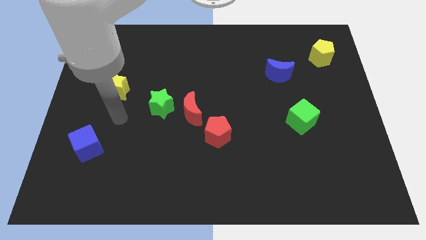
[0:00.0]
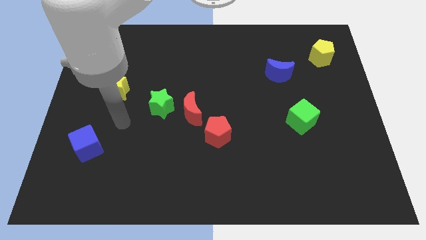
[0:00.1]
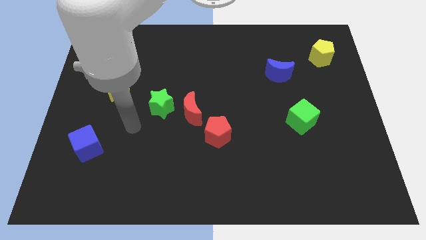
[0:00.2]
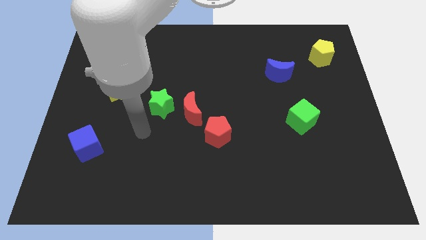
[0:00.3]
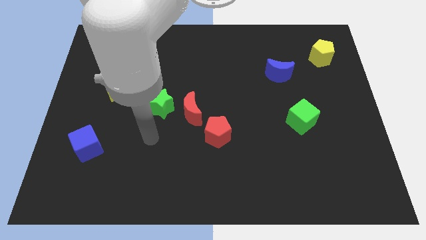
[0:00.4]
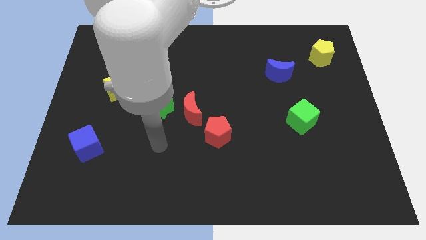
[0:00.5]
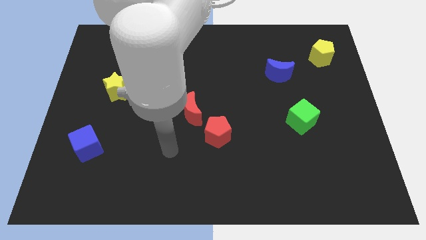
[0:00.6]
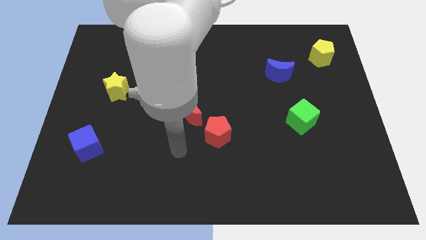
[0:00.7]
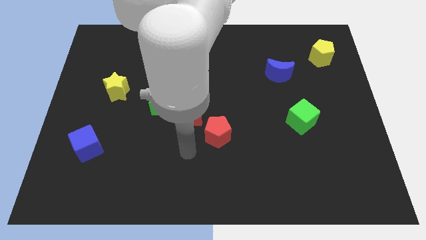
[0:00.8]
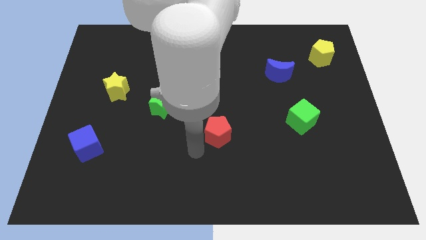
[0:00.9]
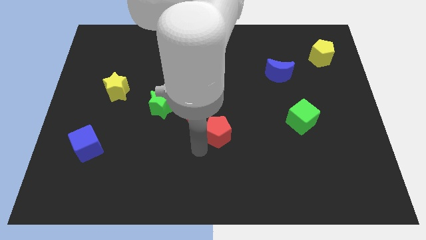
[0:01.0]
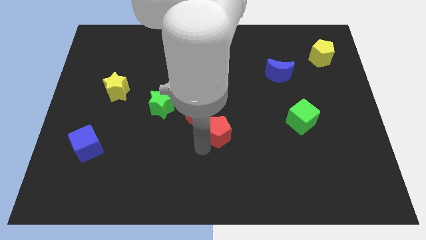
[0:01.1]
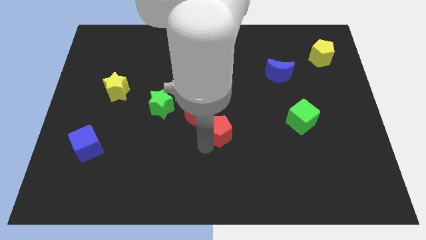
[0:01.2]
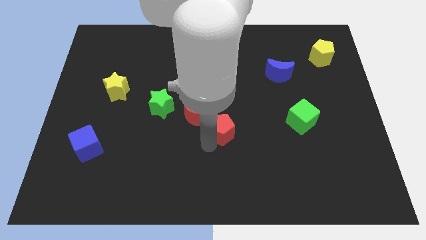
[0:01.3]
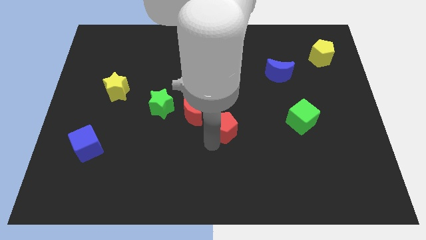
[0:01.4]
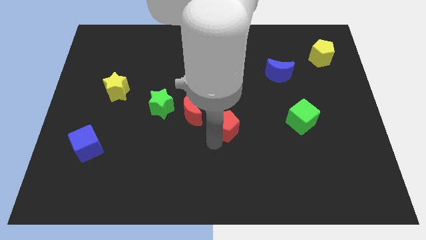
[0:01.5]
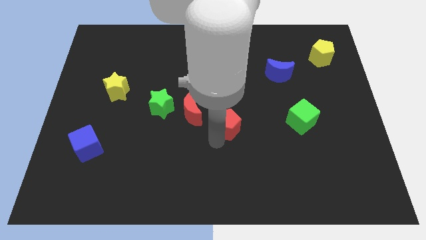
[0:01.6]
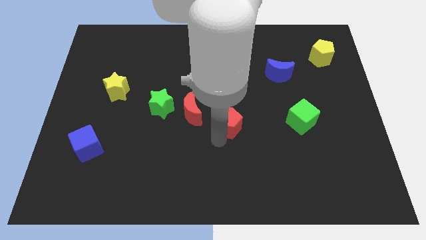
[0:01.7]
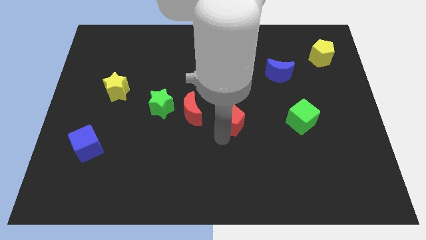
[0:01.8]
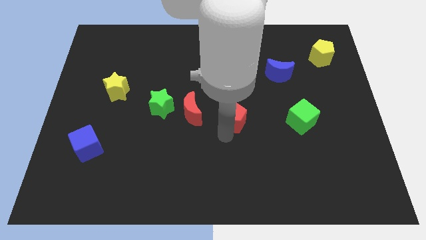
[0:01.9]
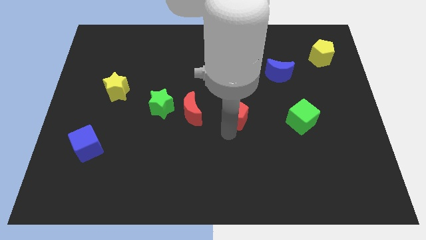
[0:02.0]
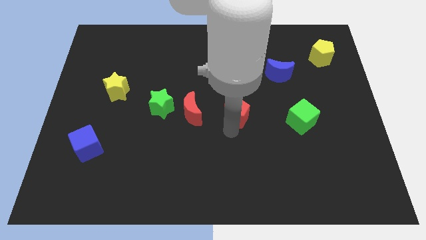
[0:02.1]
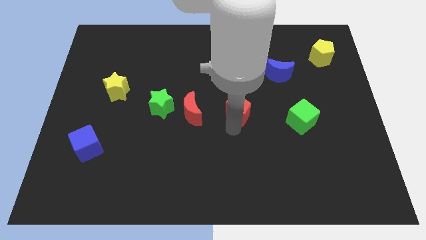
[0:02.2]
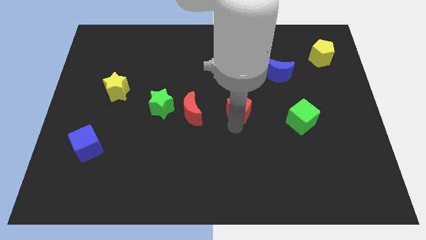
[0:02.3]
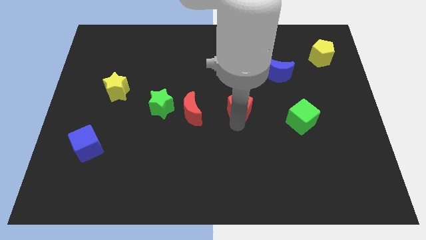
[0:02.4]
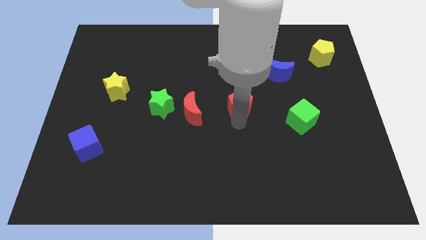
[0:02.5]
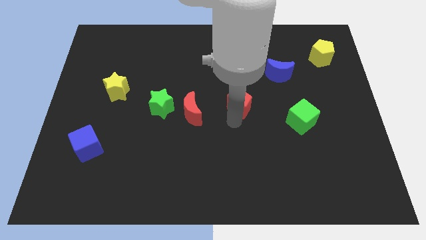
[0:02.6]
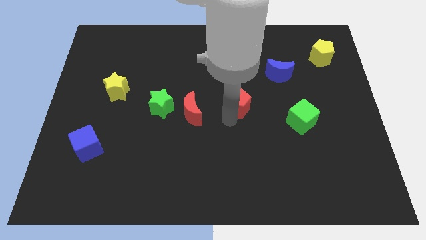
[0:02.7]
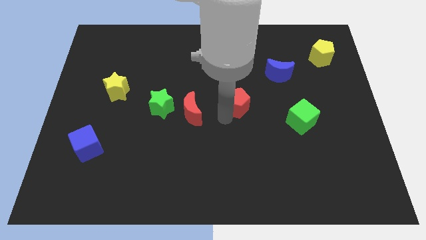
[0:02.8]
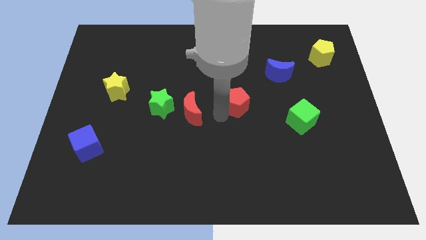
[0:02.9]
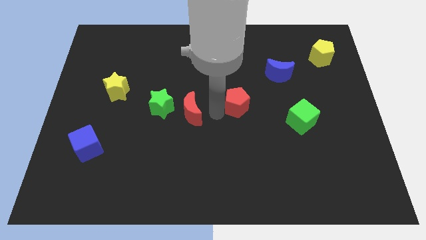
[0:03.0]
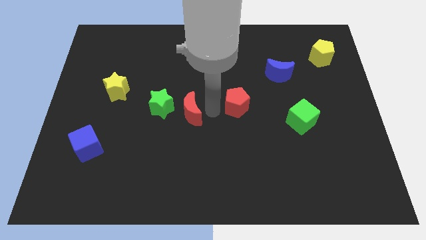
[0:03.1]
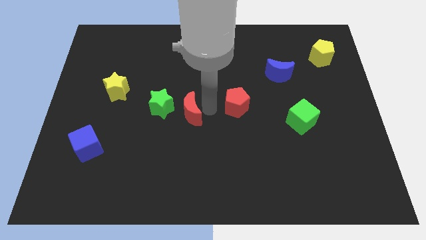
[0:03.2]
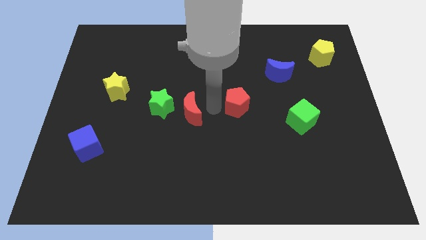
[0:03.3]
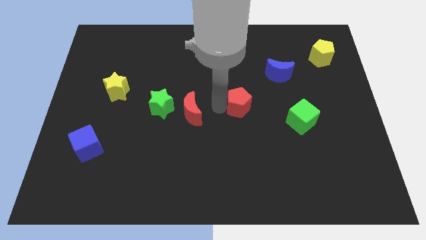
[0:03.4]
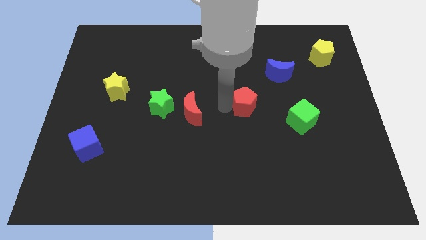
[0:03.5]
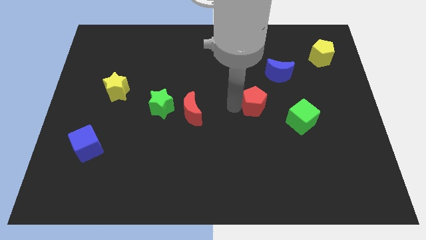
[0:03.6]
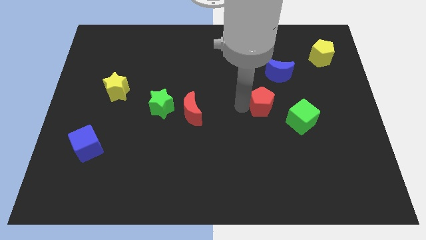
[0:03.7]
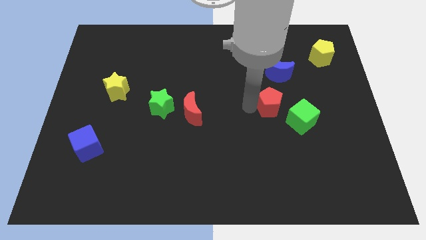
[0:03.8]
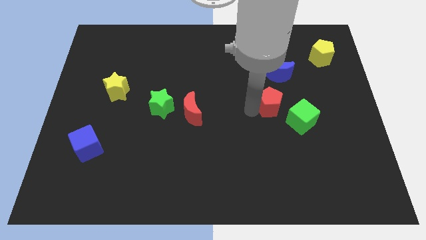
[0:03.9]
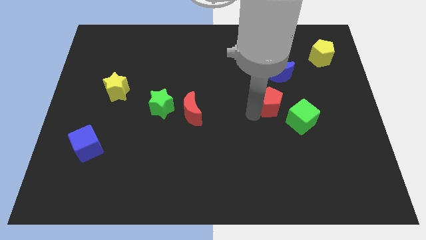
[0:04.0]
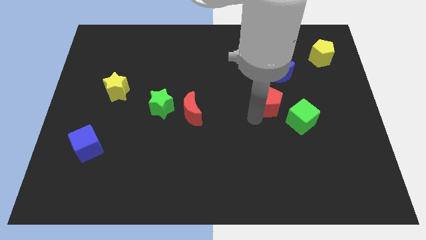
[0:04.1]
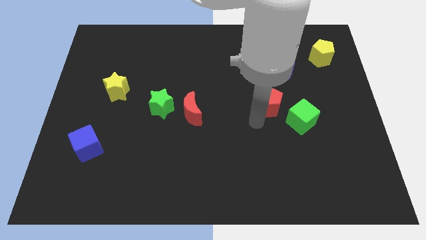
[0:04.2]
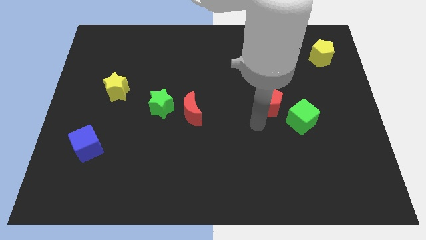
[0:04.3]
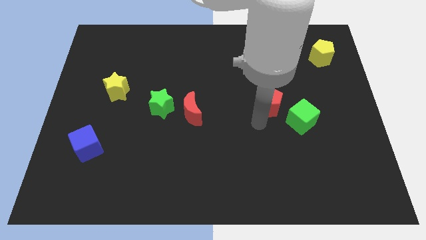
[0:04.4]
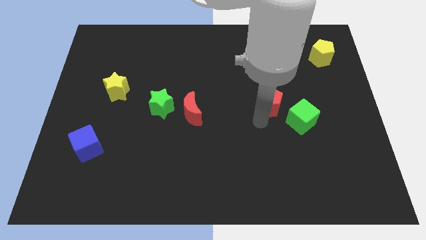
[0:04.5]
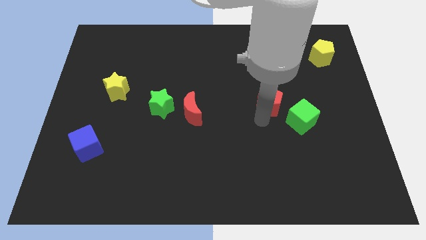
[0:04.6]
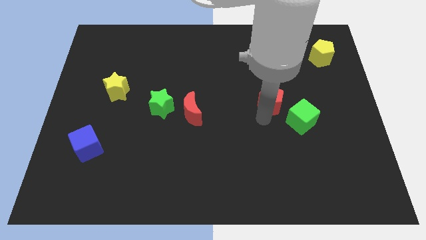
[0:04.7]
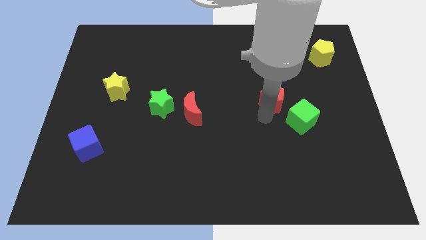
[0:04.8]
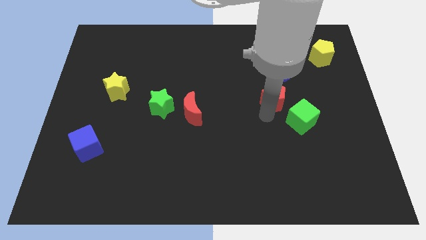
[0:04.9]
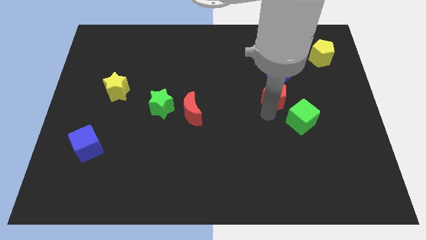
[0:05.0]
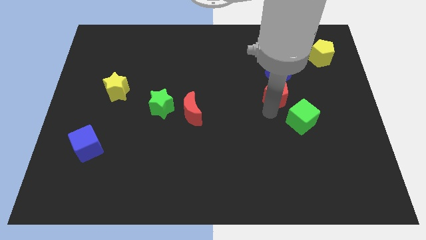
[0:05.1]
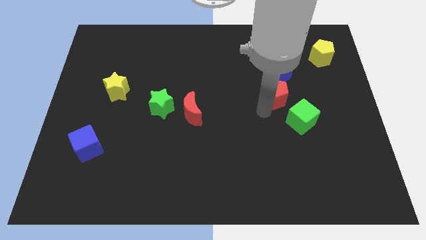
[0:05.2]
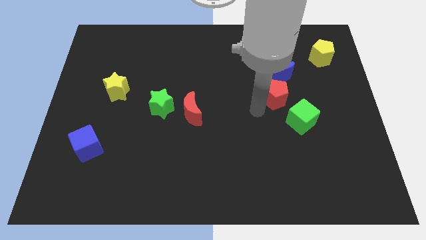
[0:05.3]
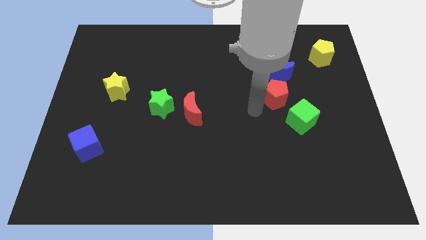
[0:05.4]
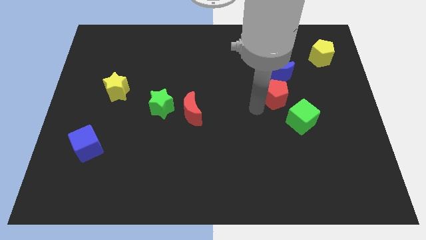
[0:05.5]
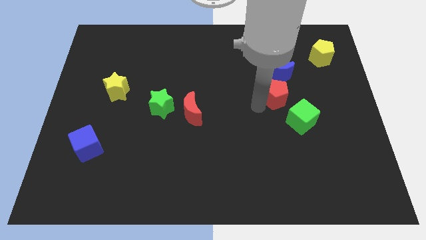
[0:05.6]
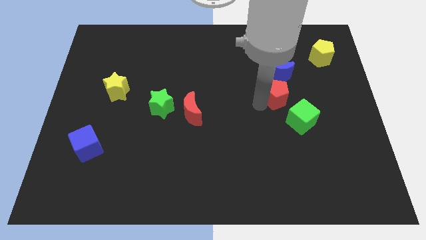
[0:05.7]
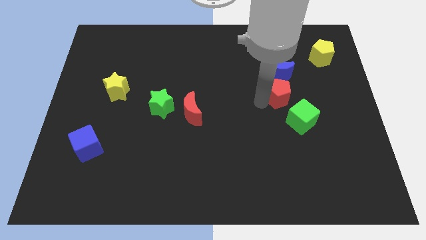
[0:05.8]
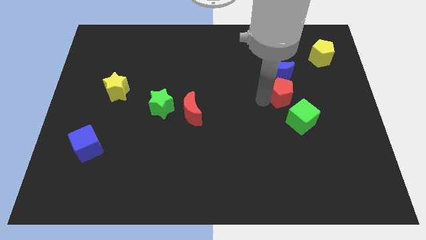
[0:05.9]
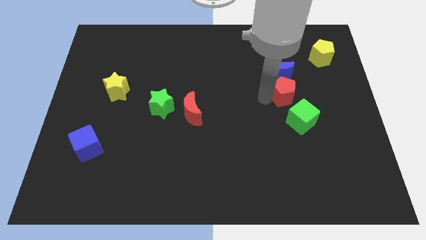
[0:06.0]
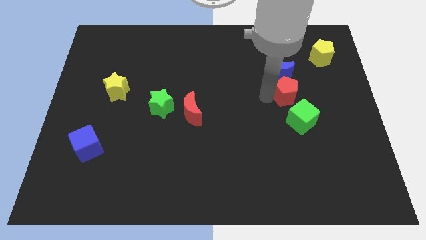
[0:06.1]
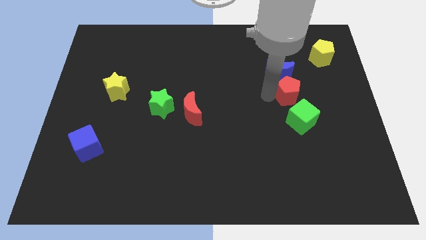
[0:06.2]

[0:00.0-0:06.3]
push the red pentagon upwards and to the right diagonally

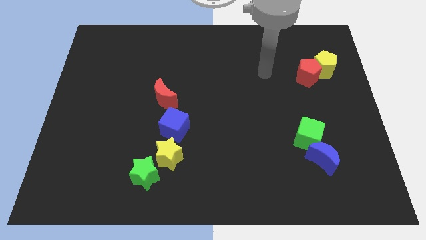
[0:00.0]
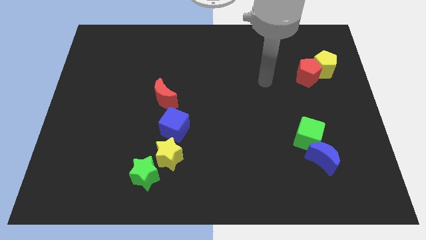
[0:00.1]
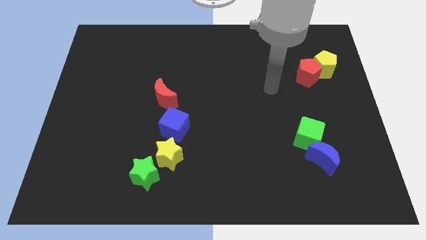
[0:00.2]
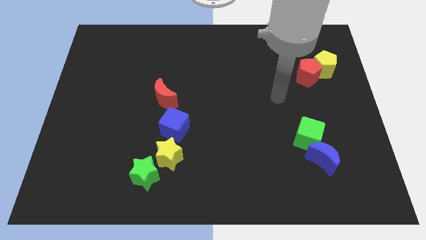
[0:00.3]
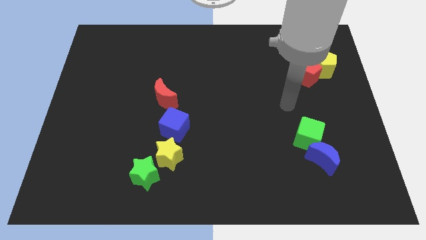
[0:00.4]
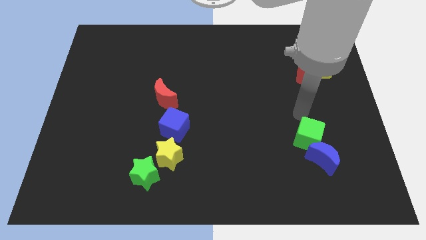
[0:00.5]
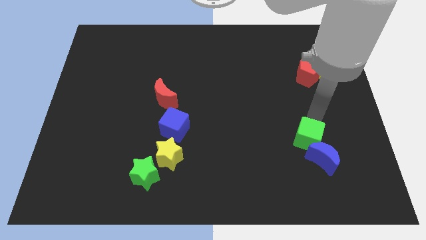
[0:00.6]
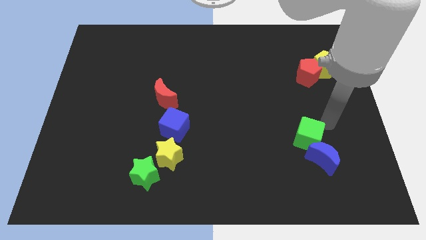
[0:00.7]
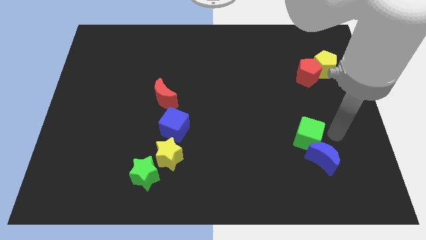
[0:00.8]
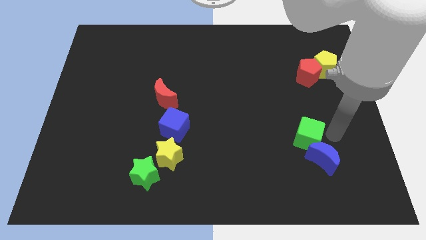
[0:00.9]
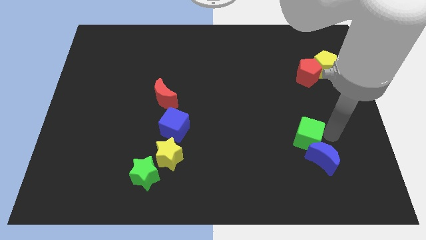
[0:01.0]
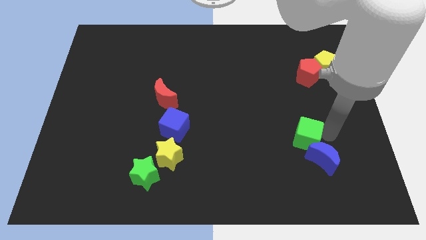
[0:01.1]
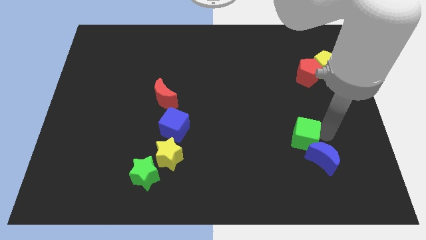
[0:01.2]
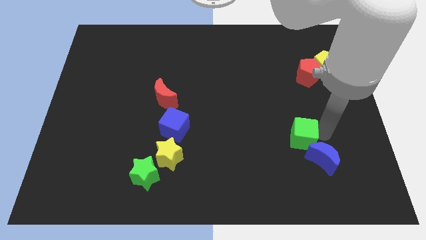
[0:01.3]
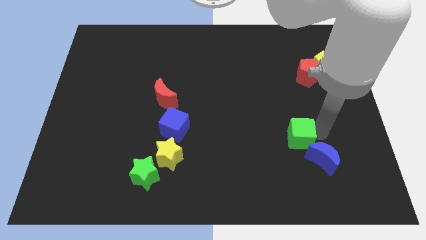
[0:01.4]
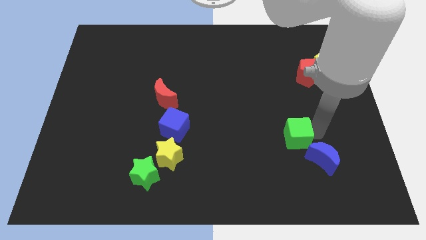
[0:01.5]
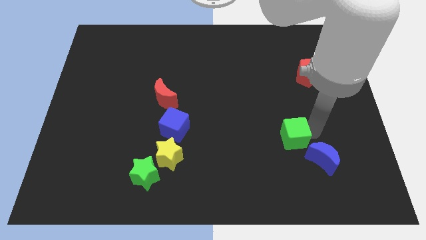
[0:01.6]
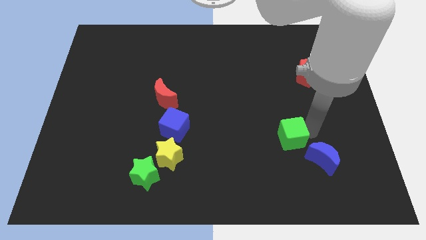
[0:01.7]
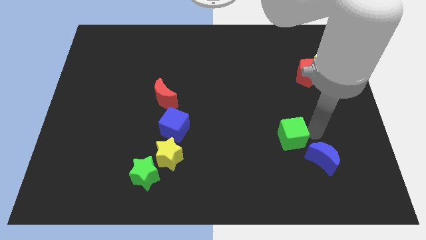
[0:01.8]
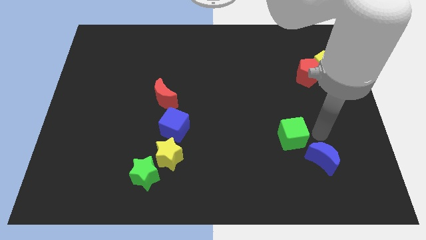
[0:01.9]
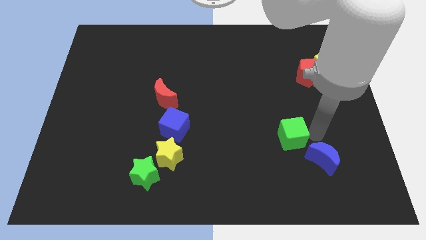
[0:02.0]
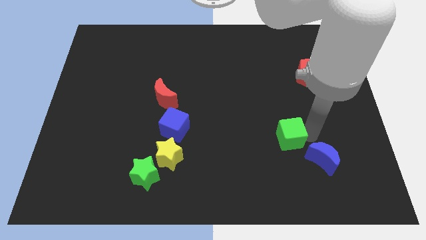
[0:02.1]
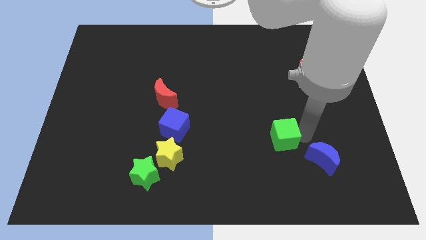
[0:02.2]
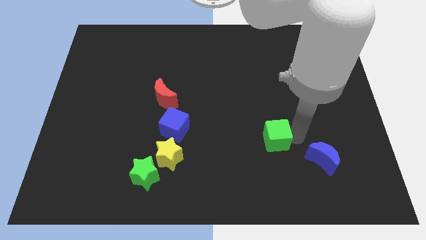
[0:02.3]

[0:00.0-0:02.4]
slightly slide the green cube to the left
